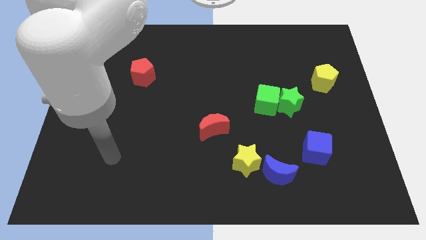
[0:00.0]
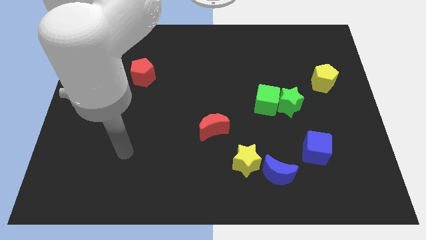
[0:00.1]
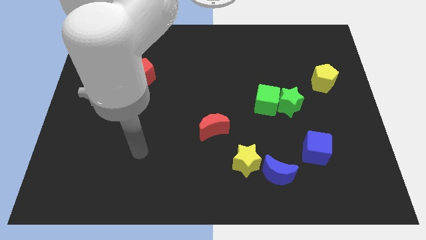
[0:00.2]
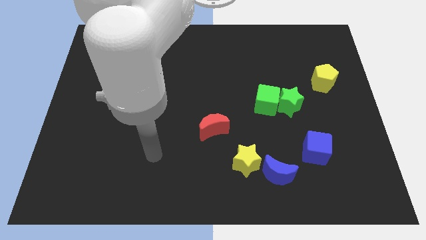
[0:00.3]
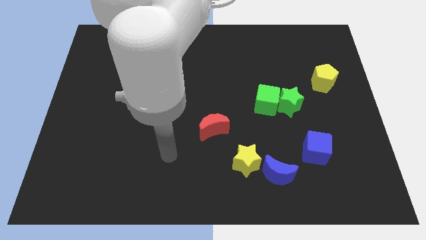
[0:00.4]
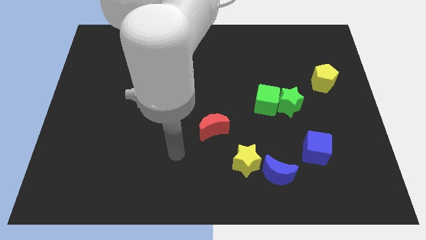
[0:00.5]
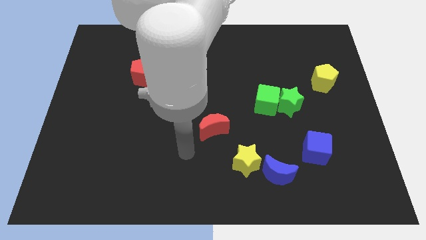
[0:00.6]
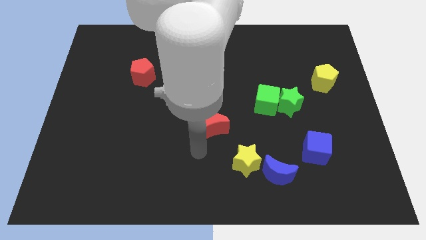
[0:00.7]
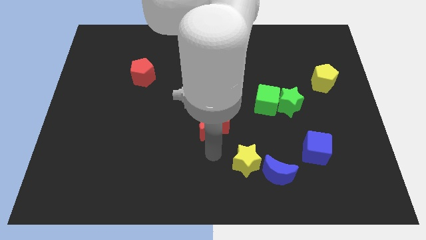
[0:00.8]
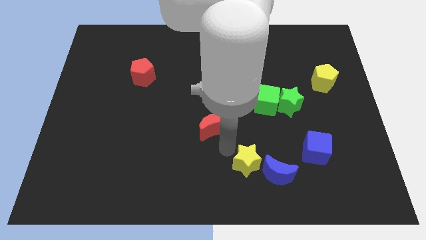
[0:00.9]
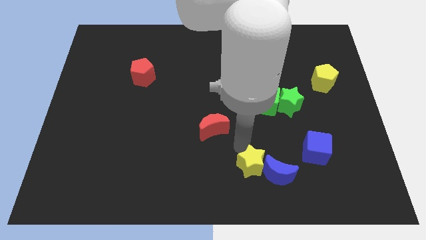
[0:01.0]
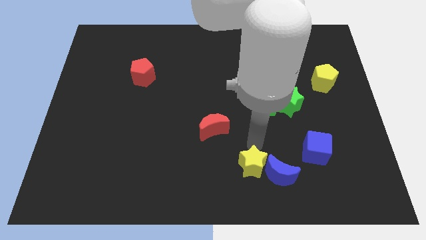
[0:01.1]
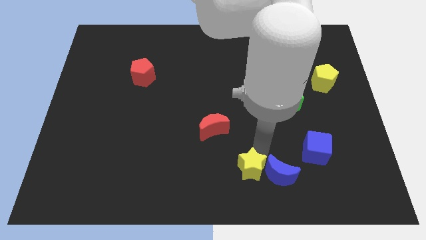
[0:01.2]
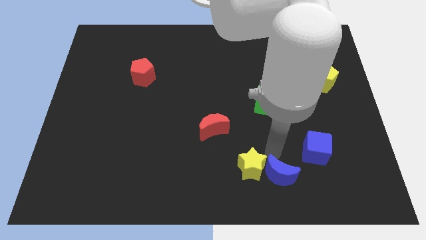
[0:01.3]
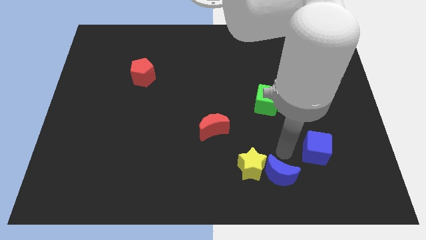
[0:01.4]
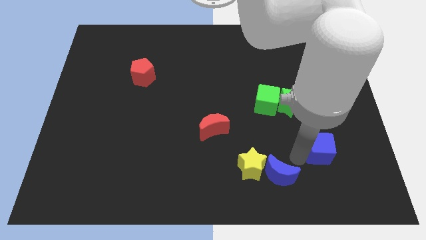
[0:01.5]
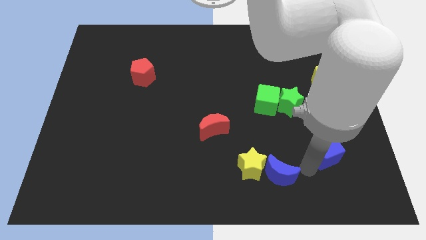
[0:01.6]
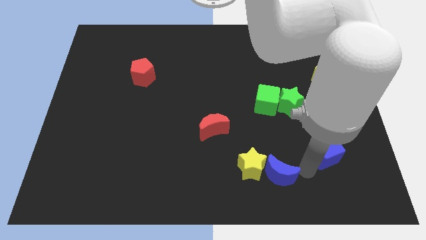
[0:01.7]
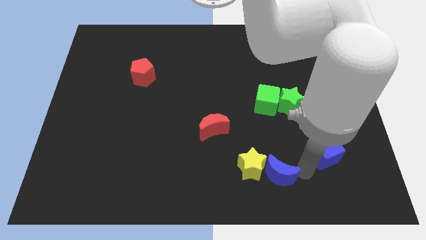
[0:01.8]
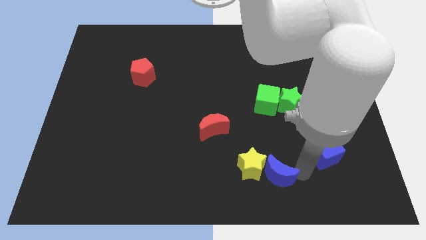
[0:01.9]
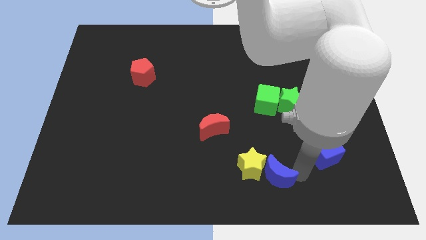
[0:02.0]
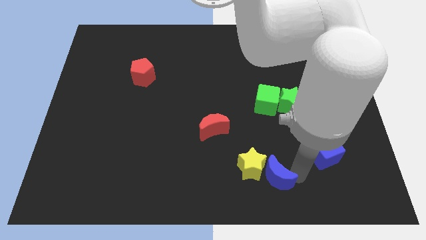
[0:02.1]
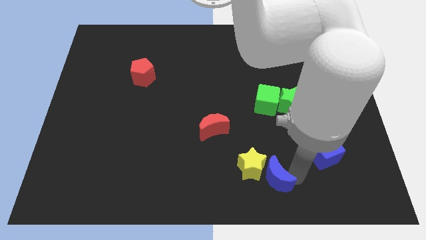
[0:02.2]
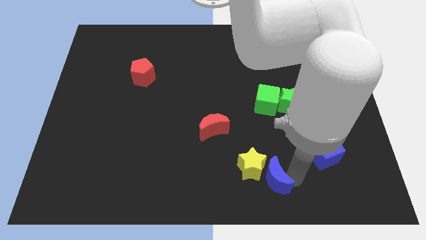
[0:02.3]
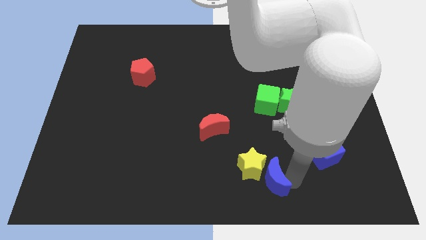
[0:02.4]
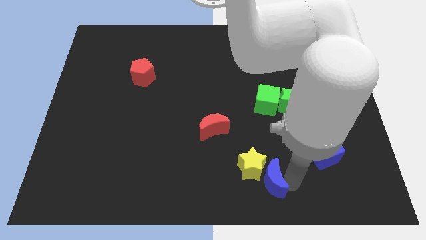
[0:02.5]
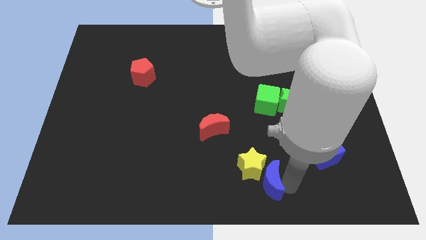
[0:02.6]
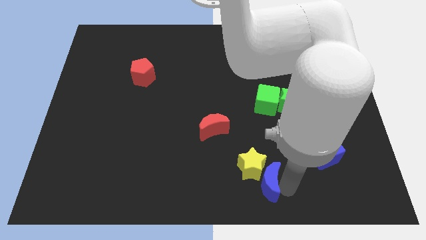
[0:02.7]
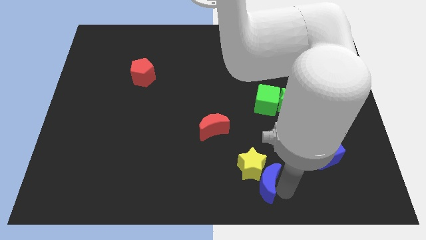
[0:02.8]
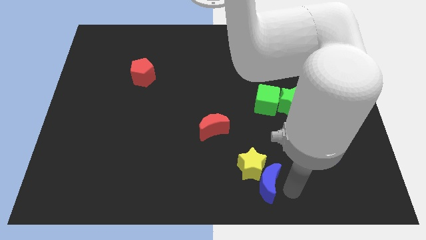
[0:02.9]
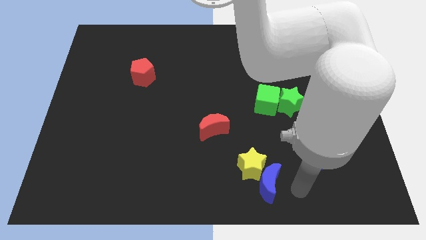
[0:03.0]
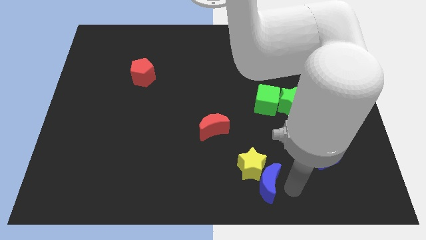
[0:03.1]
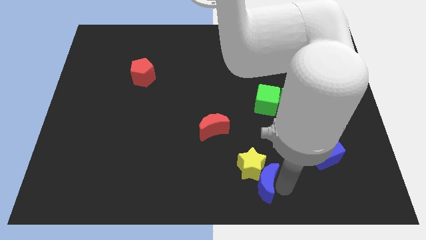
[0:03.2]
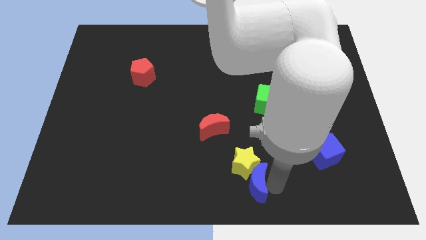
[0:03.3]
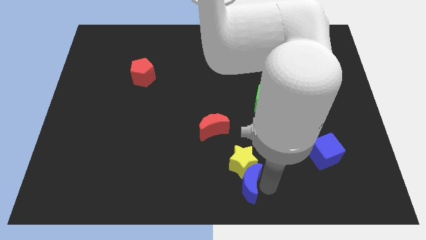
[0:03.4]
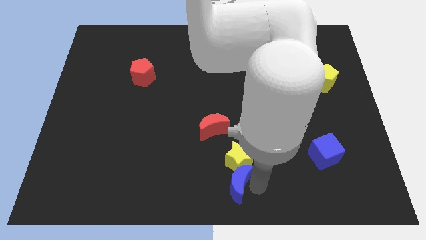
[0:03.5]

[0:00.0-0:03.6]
move the blue moon to the left somewhat

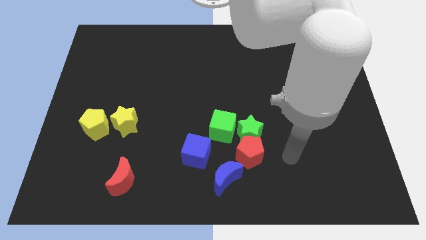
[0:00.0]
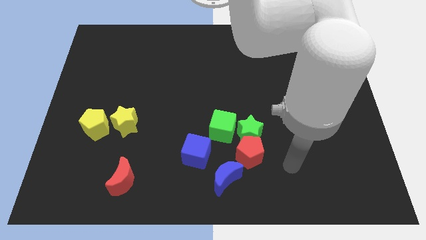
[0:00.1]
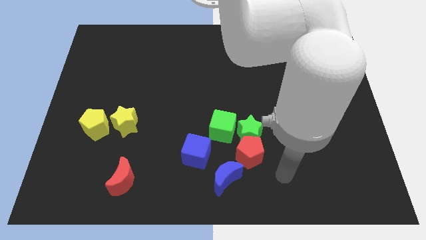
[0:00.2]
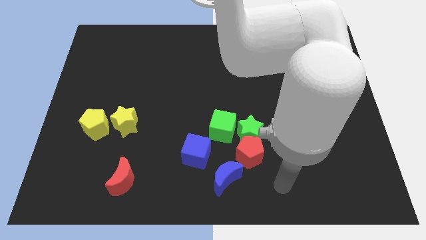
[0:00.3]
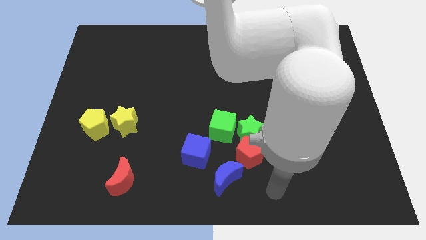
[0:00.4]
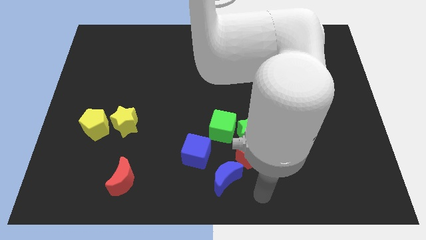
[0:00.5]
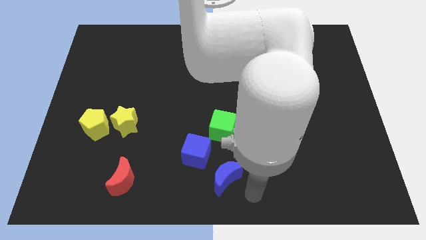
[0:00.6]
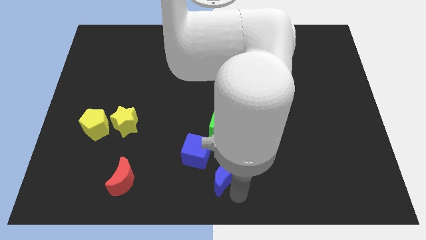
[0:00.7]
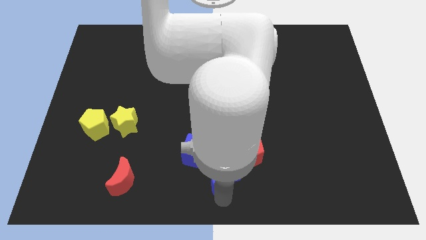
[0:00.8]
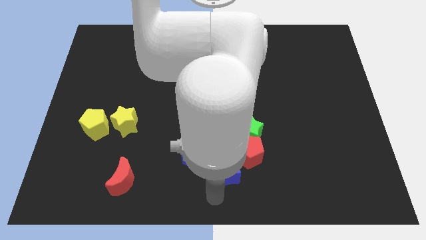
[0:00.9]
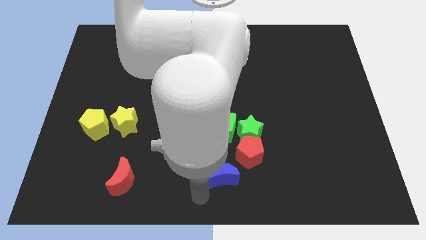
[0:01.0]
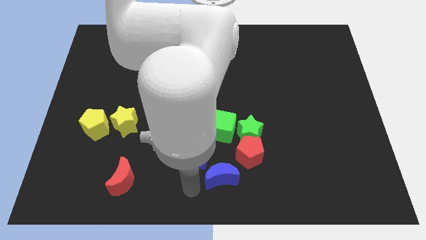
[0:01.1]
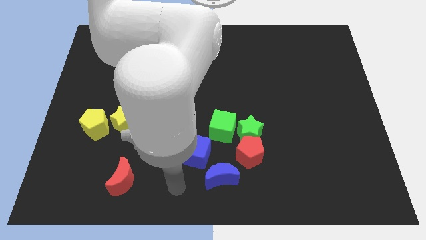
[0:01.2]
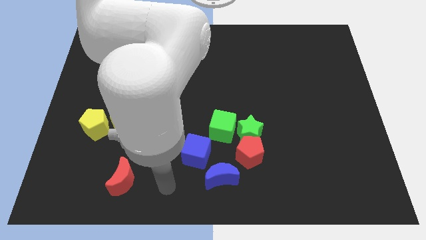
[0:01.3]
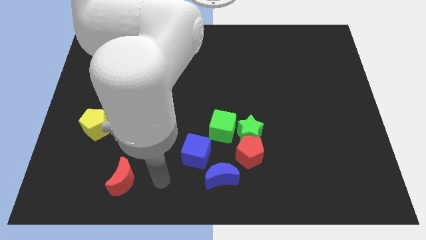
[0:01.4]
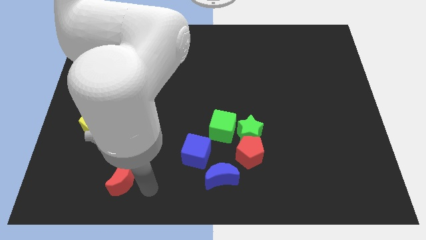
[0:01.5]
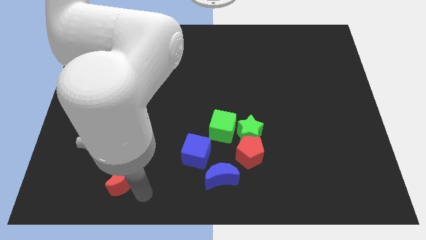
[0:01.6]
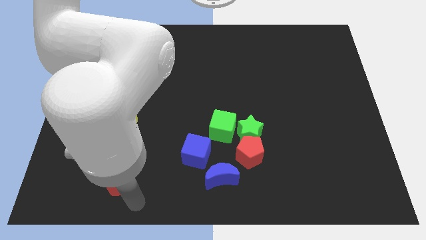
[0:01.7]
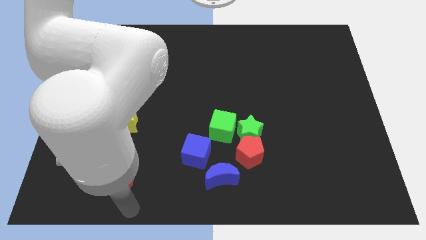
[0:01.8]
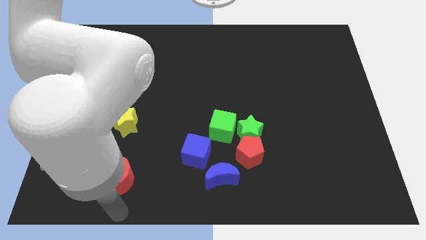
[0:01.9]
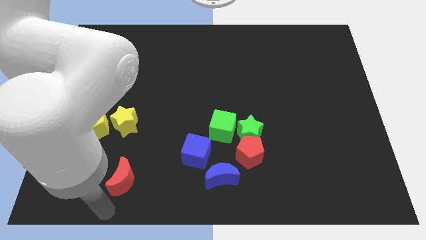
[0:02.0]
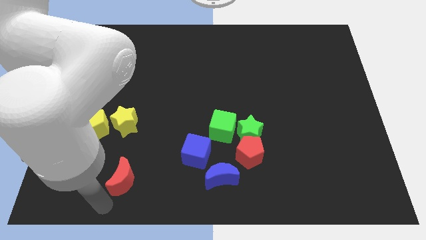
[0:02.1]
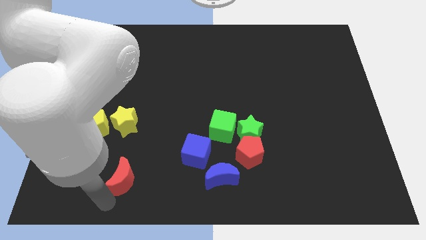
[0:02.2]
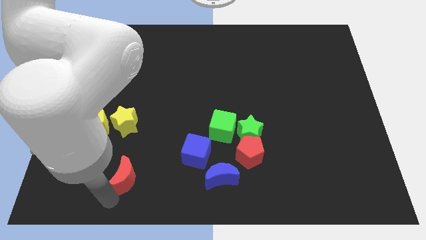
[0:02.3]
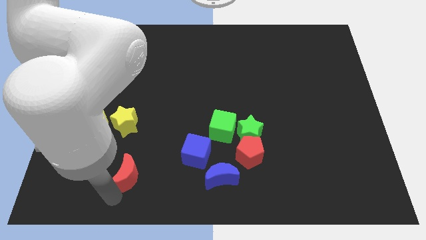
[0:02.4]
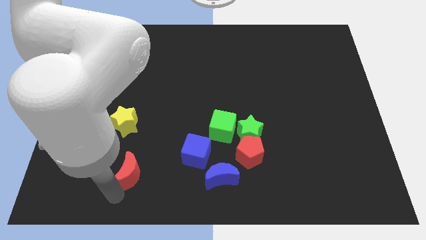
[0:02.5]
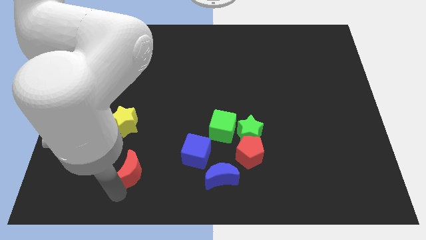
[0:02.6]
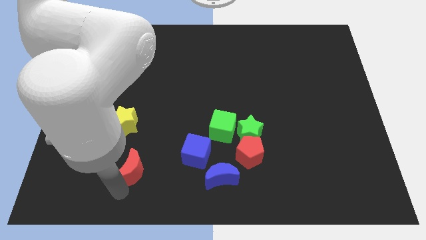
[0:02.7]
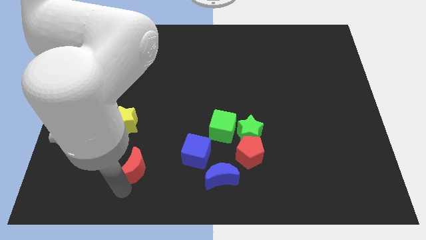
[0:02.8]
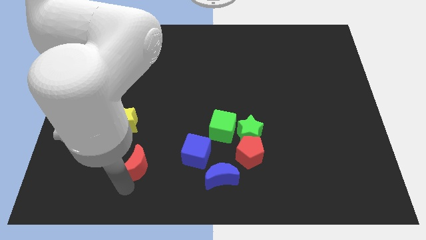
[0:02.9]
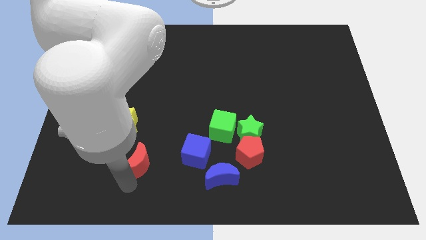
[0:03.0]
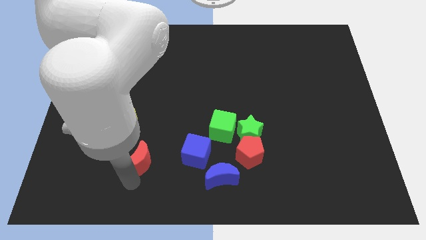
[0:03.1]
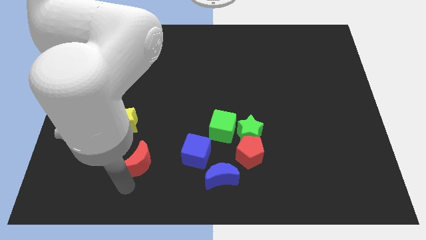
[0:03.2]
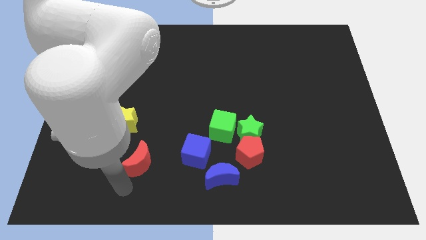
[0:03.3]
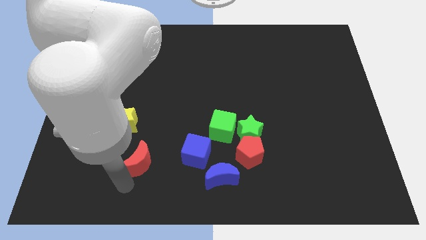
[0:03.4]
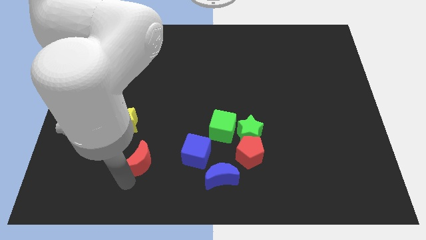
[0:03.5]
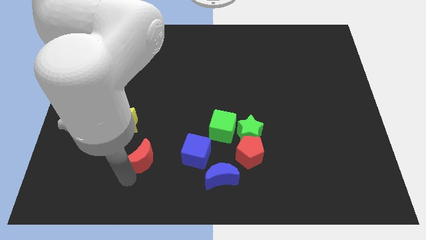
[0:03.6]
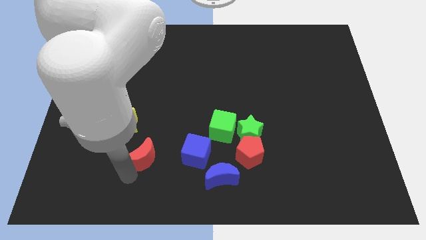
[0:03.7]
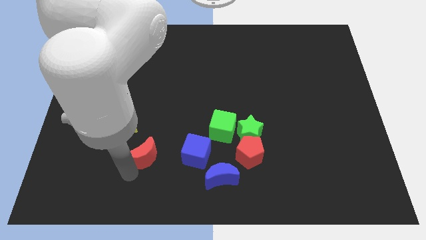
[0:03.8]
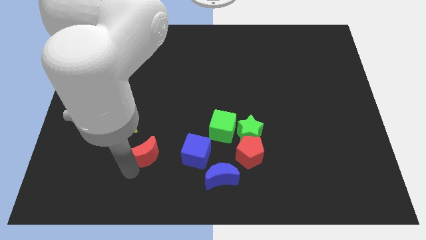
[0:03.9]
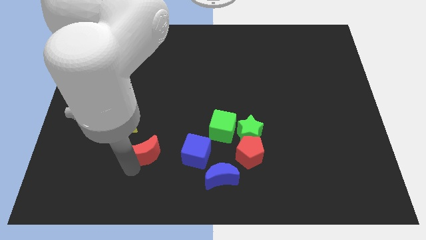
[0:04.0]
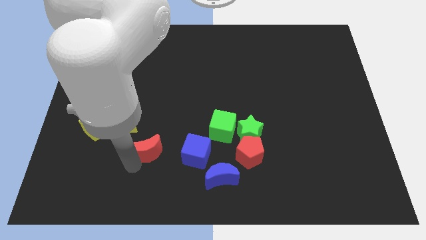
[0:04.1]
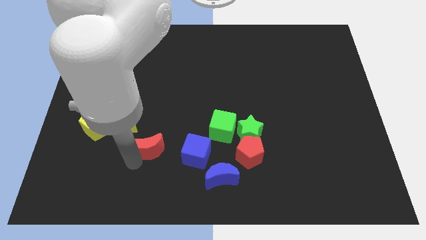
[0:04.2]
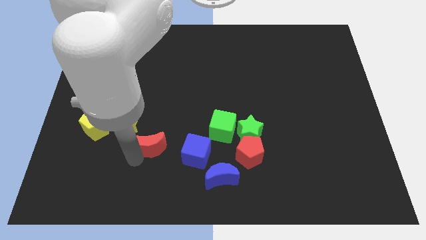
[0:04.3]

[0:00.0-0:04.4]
slide the red moon a little bit upwards
